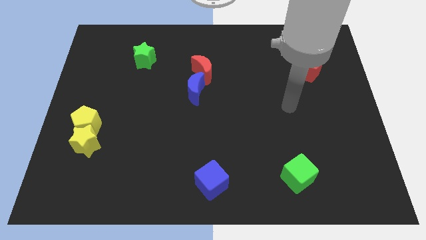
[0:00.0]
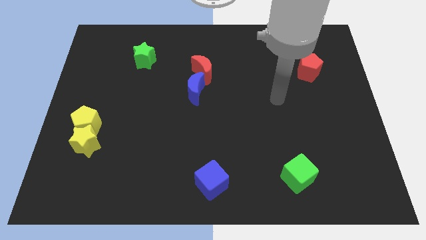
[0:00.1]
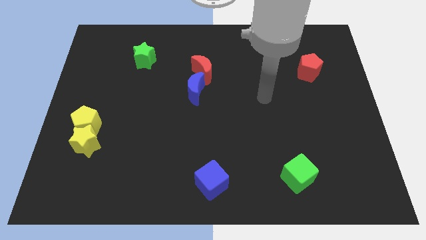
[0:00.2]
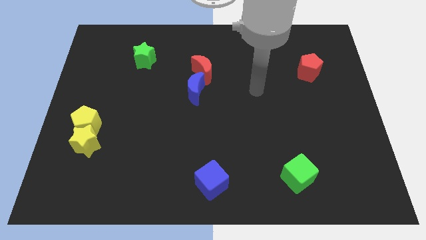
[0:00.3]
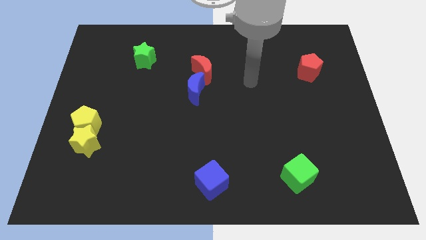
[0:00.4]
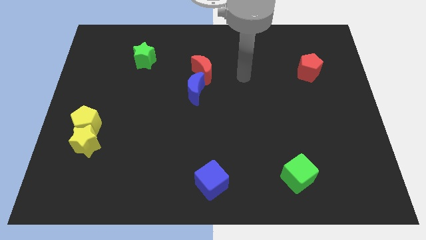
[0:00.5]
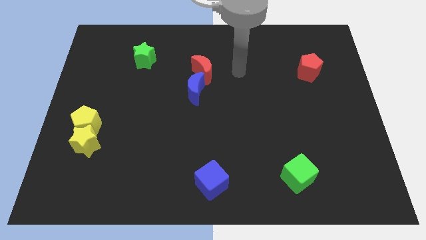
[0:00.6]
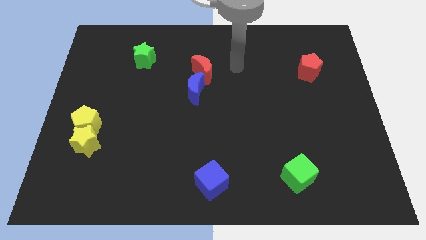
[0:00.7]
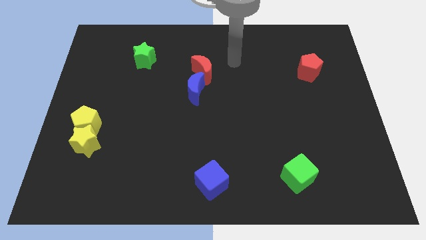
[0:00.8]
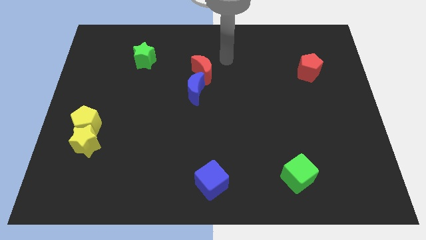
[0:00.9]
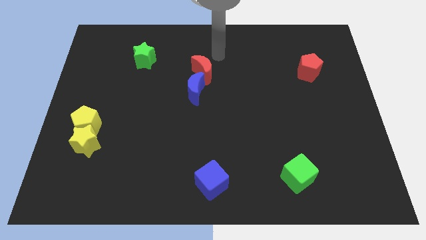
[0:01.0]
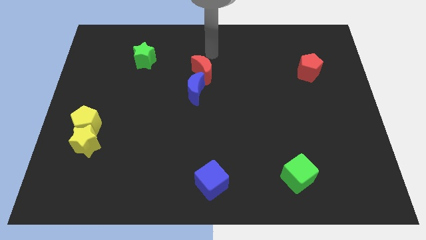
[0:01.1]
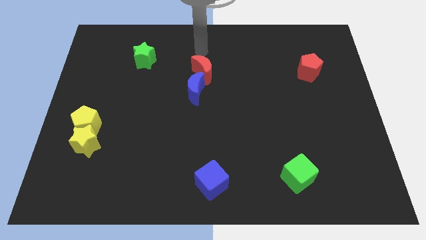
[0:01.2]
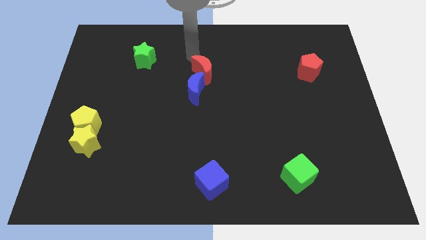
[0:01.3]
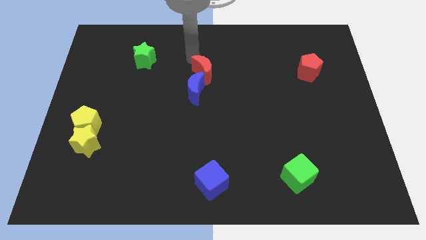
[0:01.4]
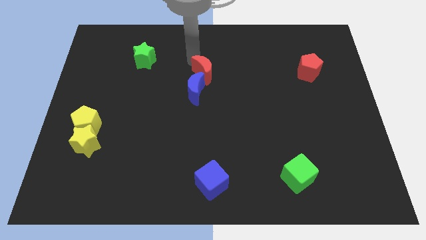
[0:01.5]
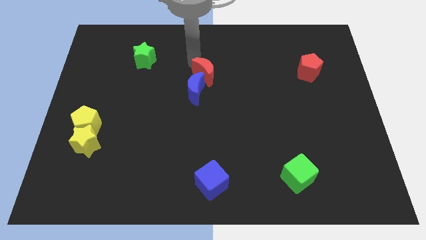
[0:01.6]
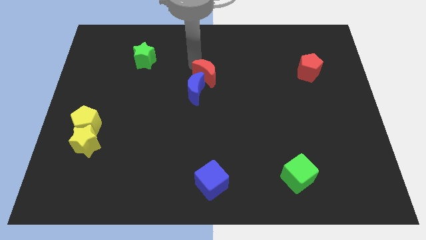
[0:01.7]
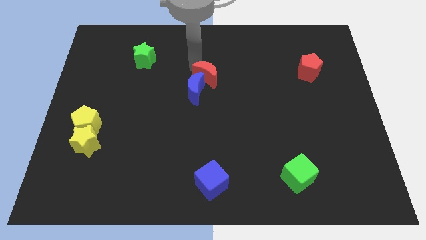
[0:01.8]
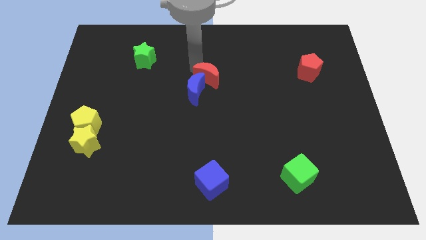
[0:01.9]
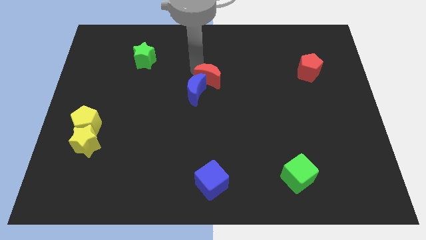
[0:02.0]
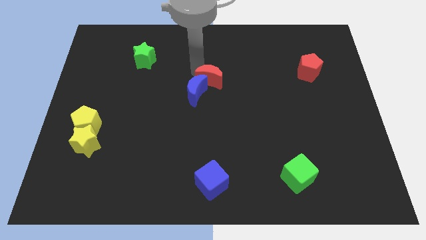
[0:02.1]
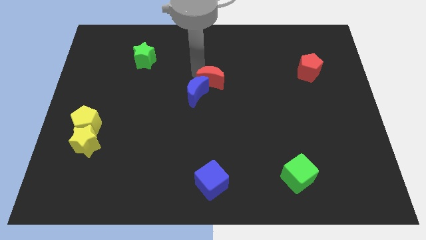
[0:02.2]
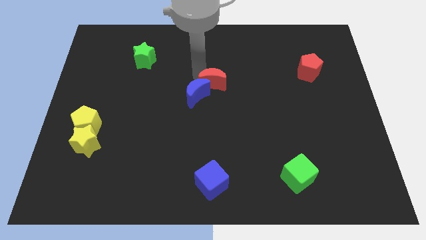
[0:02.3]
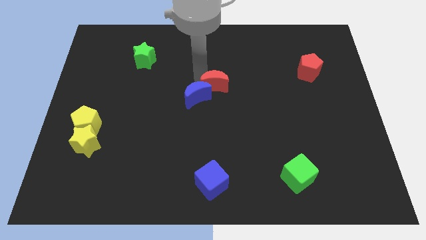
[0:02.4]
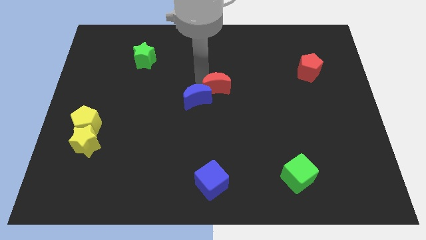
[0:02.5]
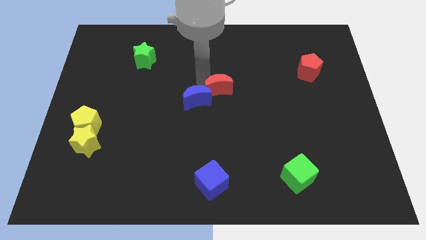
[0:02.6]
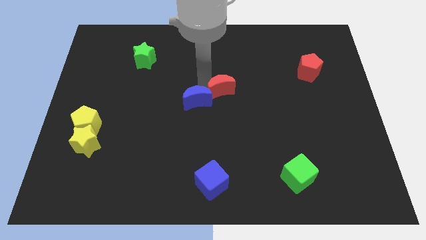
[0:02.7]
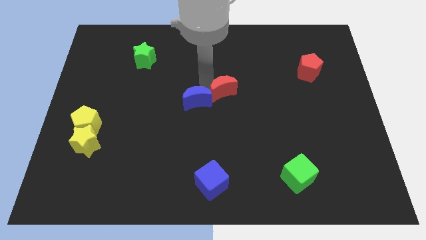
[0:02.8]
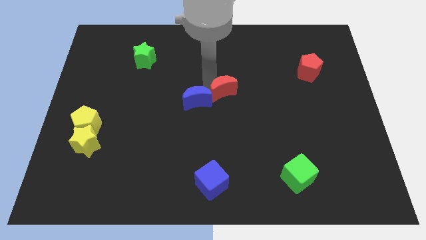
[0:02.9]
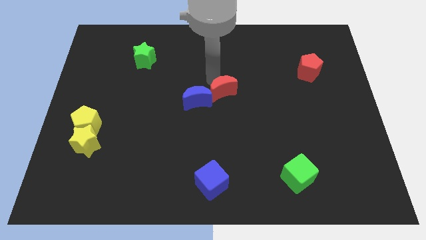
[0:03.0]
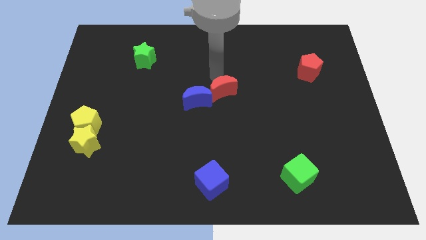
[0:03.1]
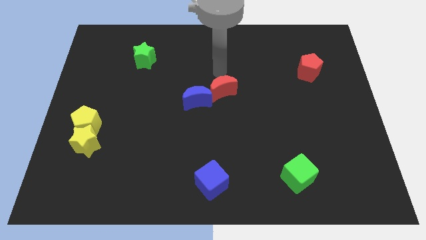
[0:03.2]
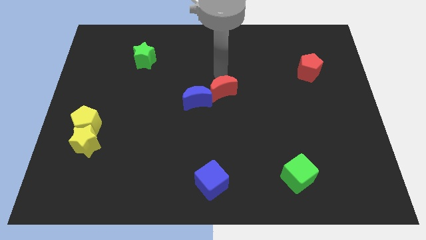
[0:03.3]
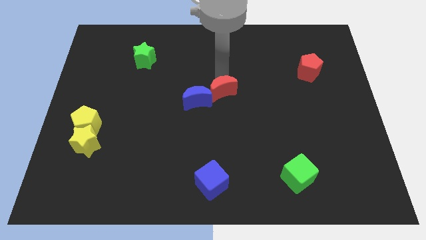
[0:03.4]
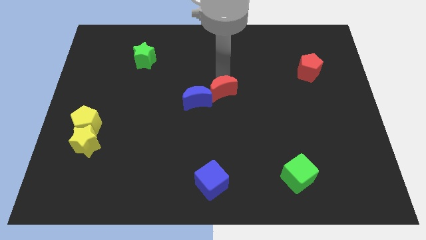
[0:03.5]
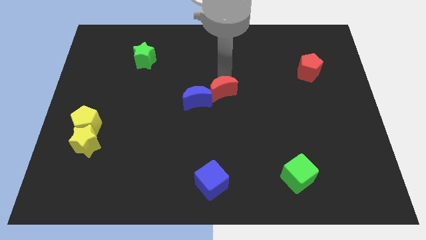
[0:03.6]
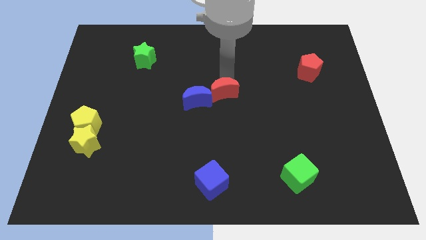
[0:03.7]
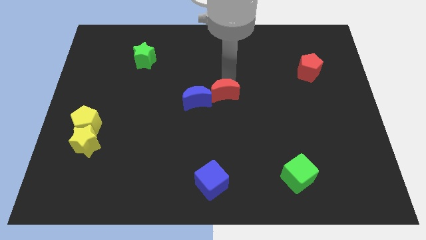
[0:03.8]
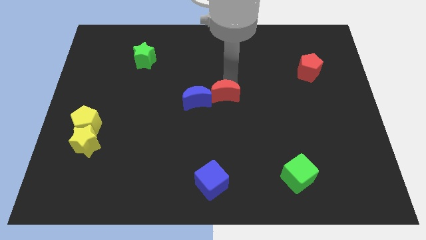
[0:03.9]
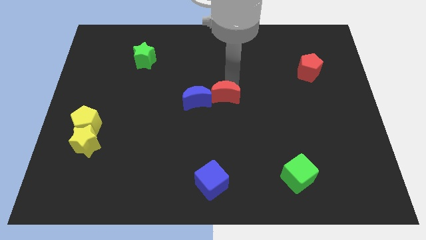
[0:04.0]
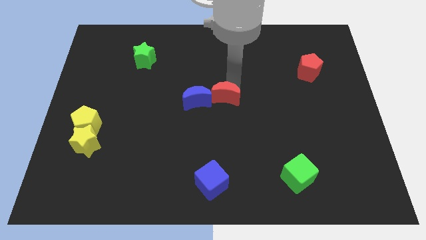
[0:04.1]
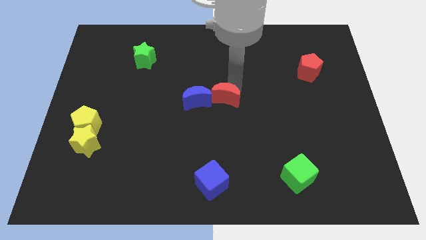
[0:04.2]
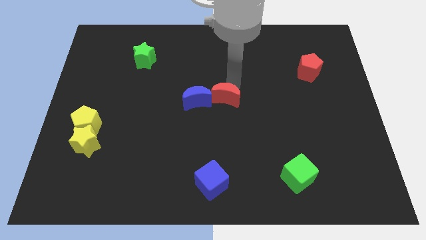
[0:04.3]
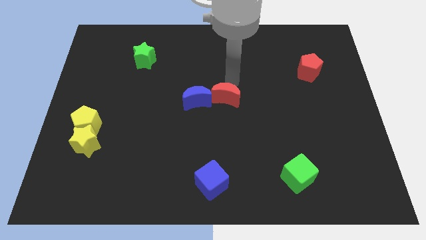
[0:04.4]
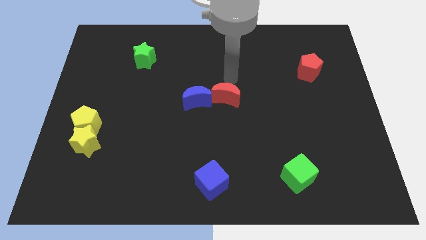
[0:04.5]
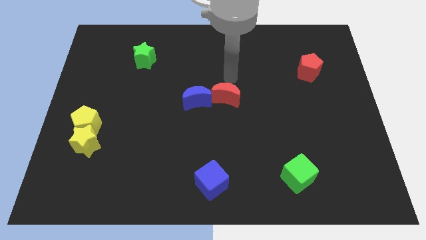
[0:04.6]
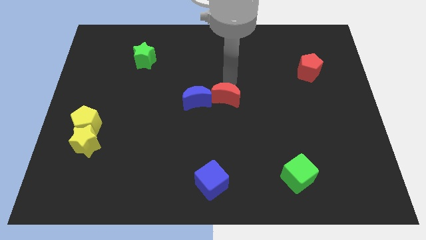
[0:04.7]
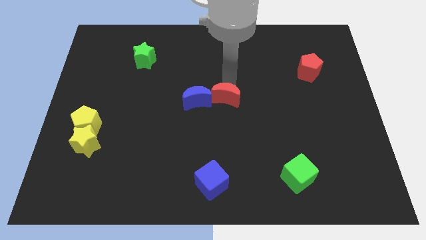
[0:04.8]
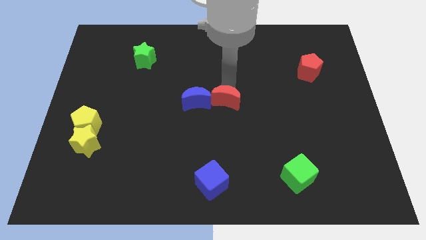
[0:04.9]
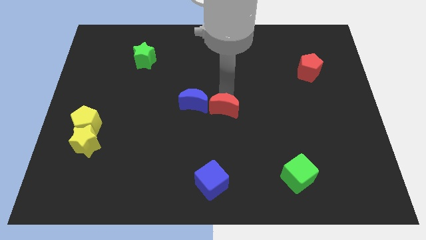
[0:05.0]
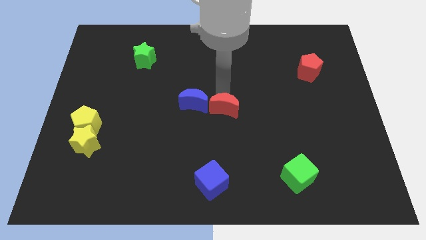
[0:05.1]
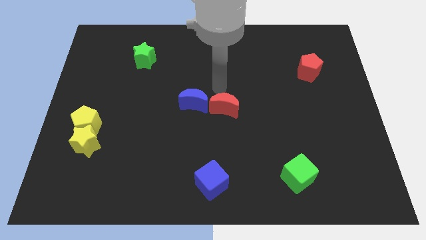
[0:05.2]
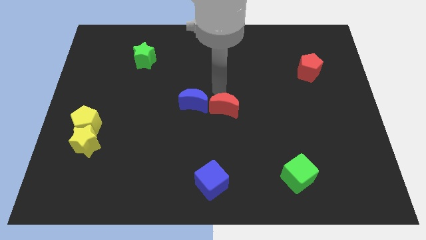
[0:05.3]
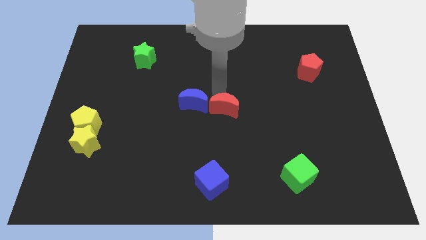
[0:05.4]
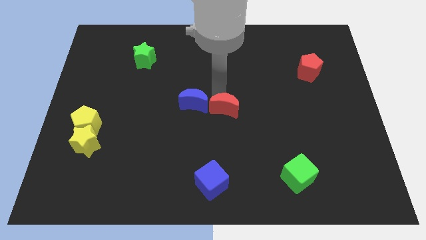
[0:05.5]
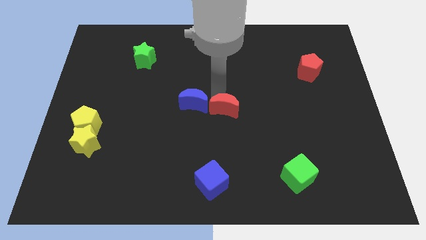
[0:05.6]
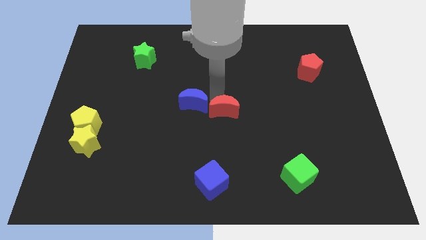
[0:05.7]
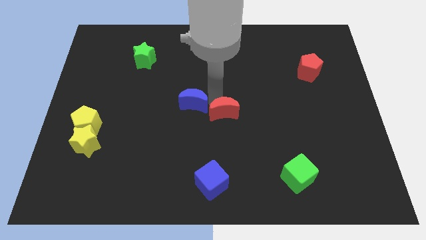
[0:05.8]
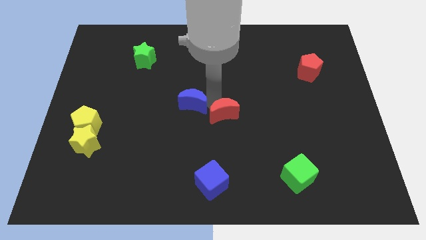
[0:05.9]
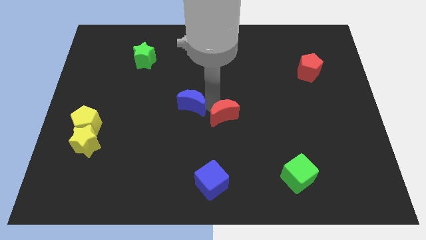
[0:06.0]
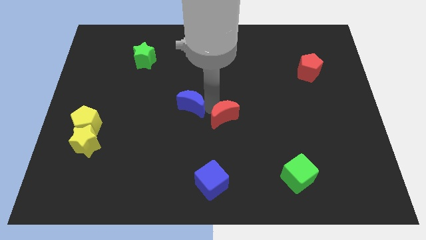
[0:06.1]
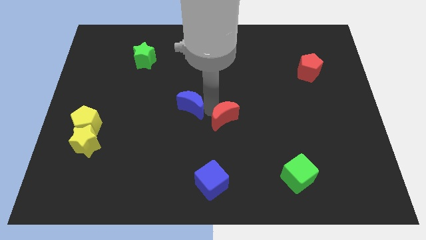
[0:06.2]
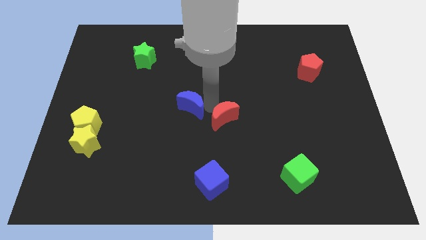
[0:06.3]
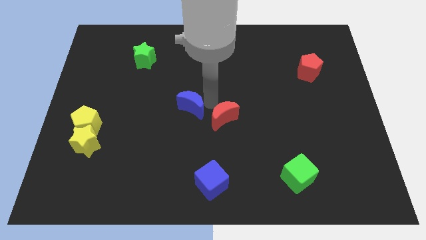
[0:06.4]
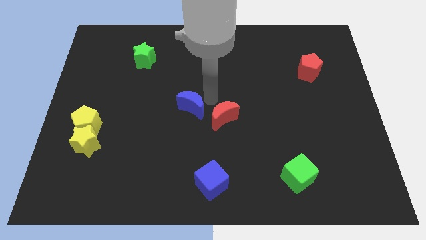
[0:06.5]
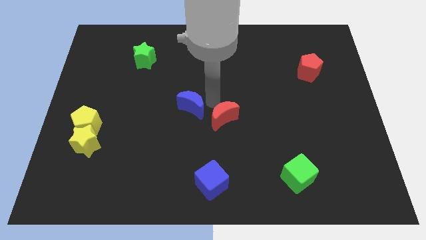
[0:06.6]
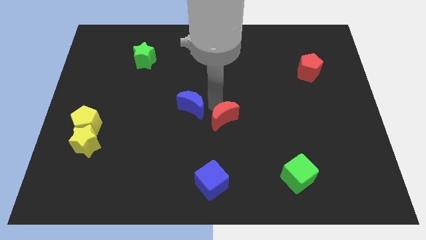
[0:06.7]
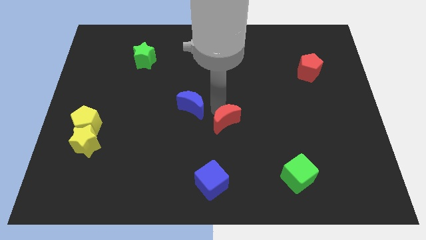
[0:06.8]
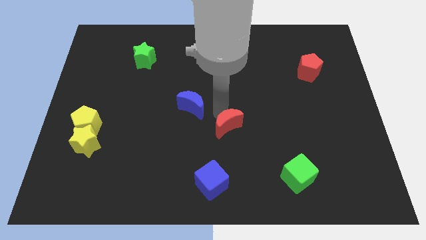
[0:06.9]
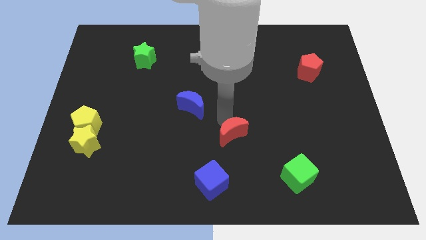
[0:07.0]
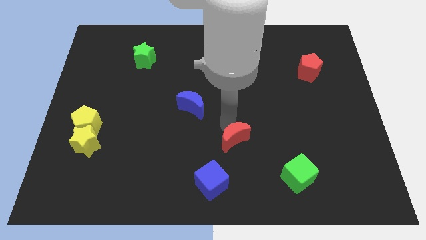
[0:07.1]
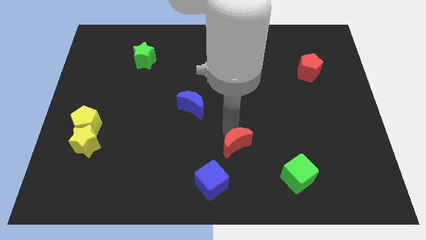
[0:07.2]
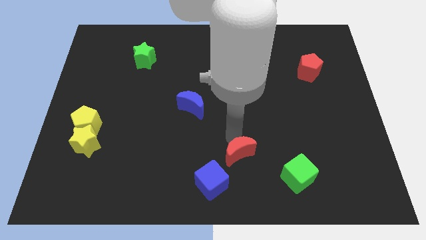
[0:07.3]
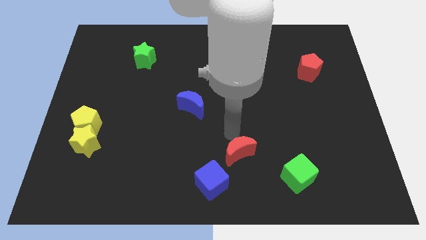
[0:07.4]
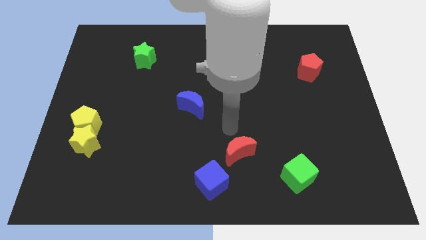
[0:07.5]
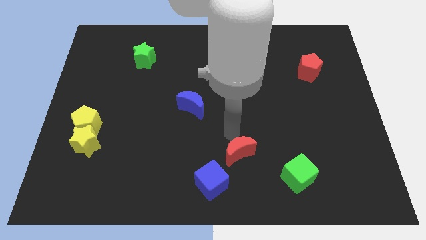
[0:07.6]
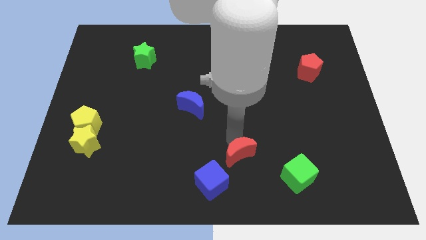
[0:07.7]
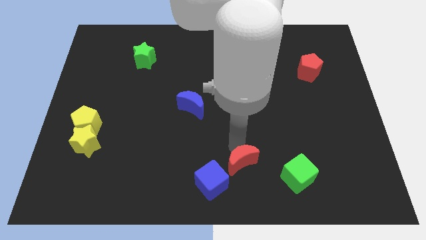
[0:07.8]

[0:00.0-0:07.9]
push the red moon to the left of the green cube
